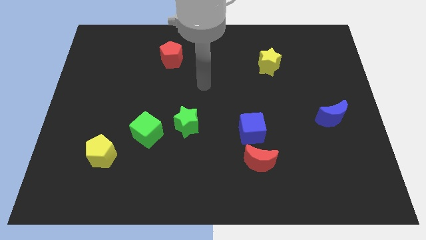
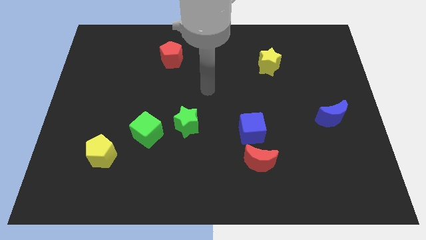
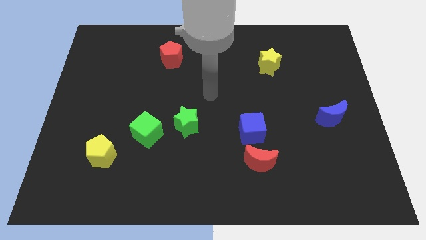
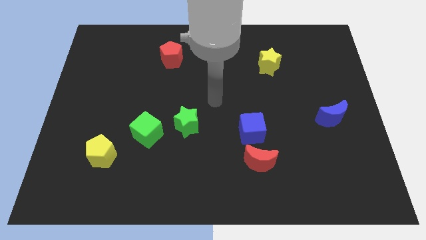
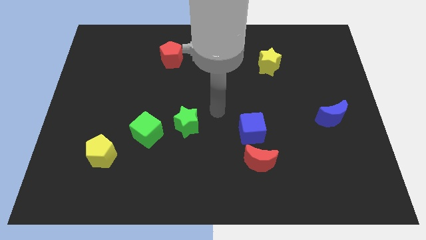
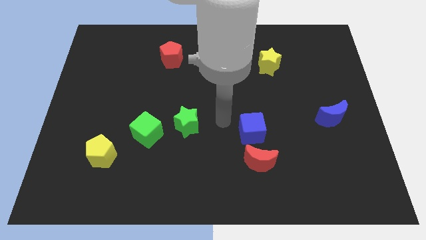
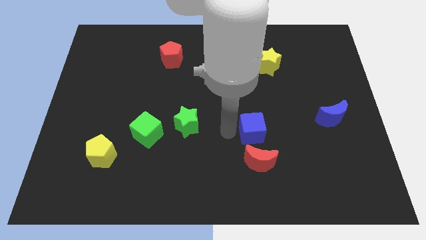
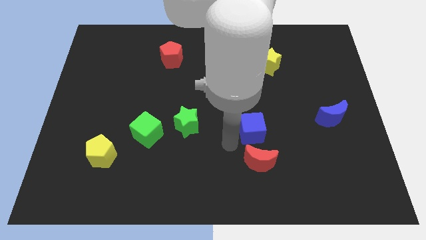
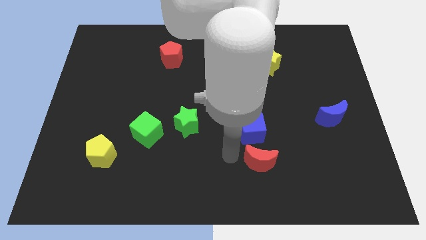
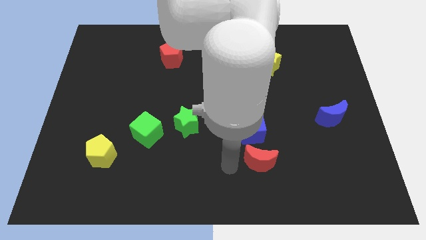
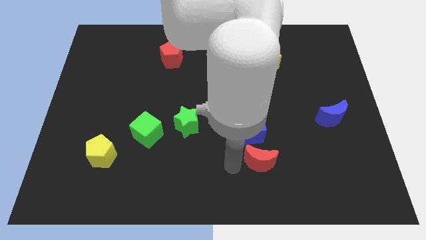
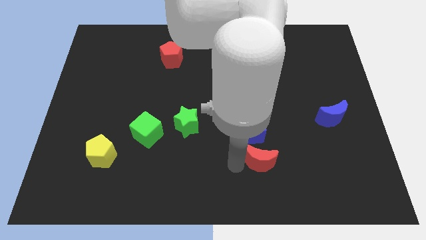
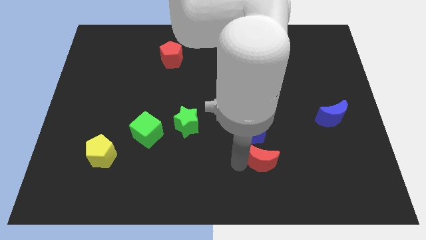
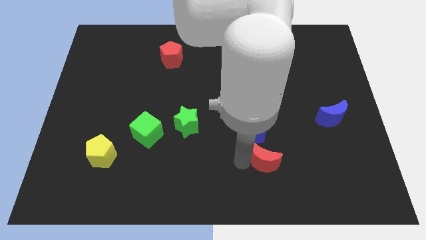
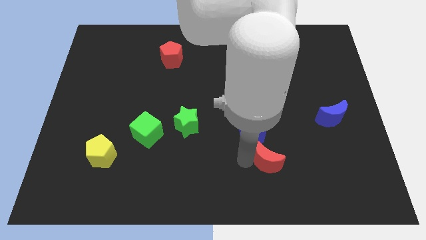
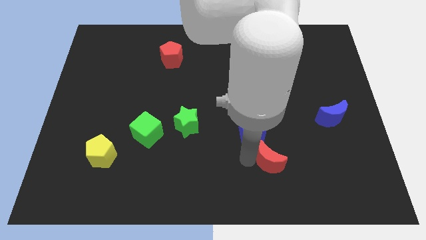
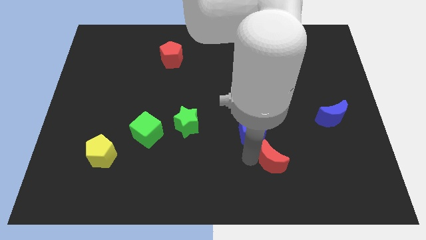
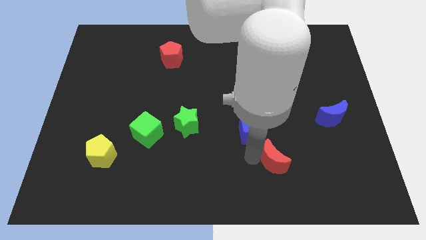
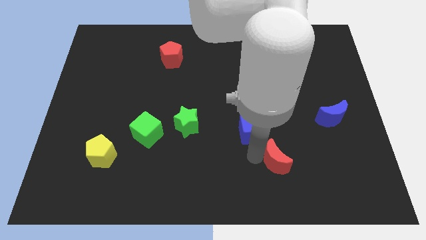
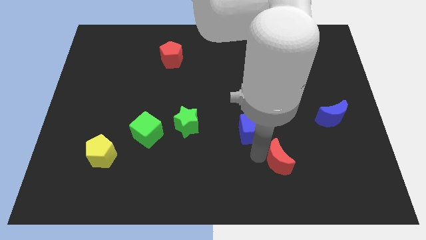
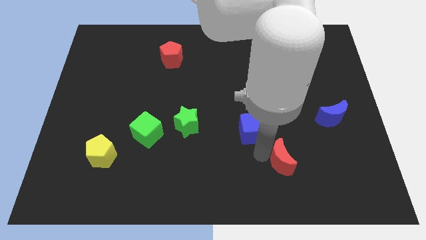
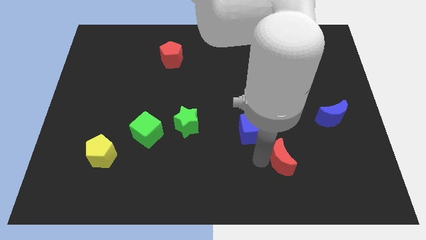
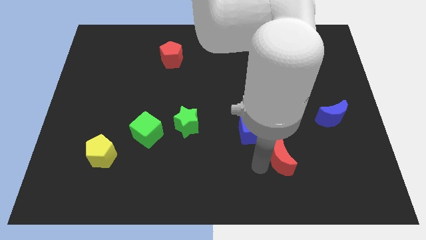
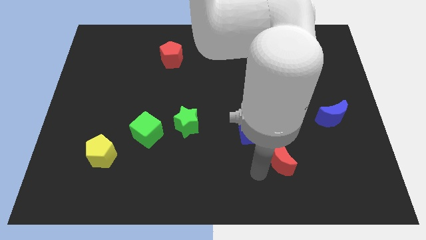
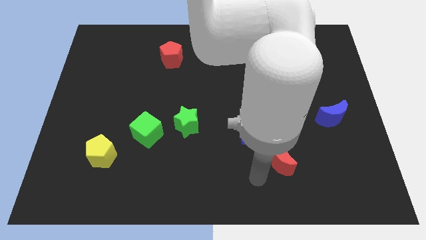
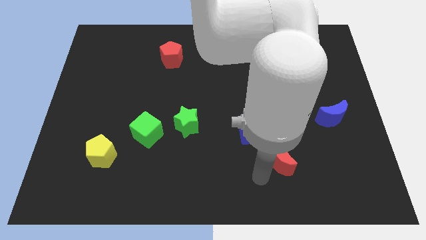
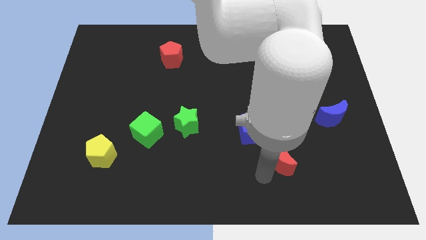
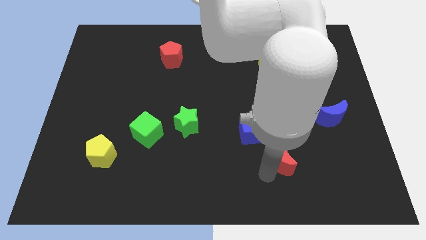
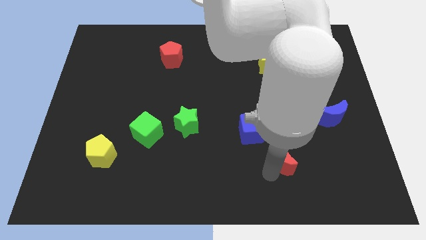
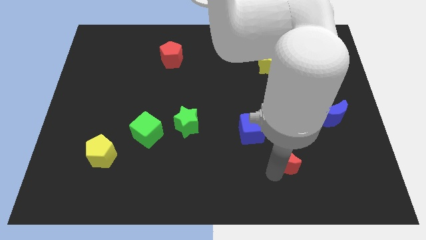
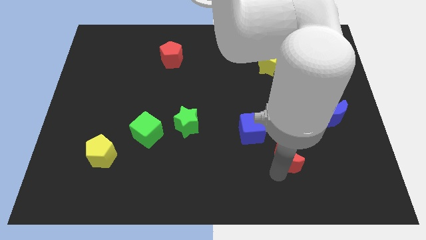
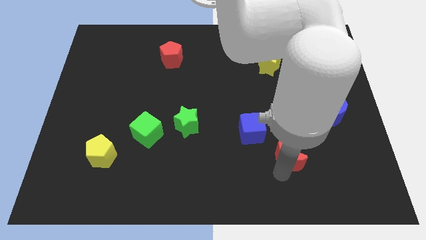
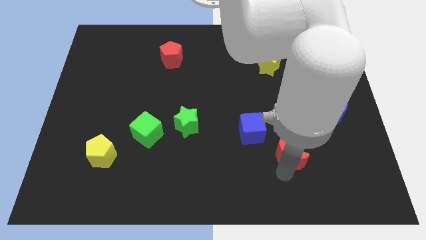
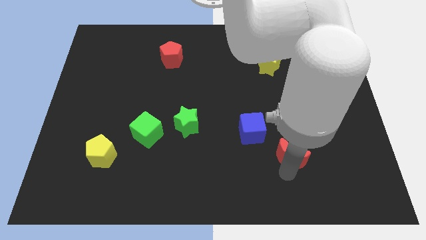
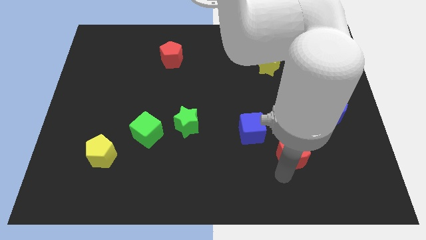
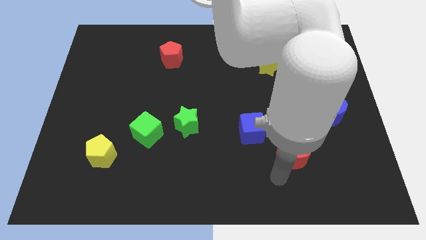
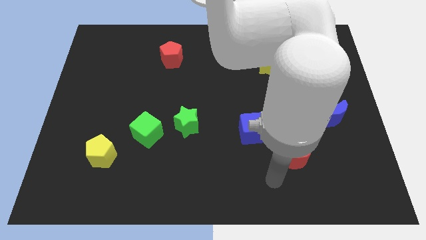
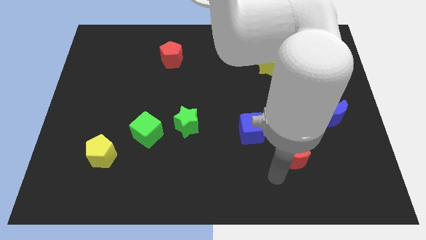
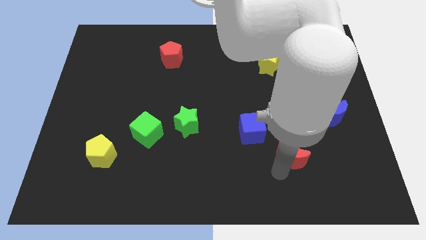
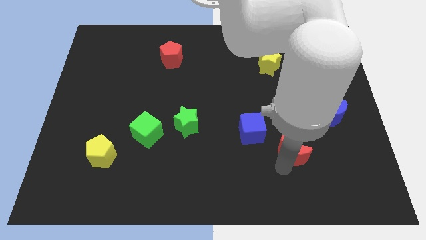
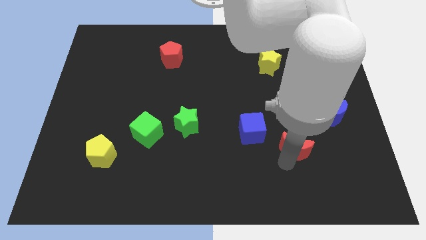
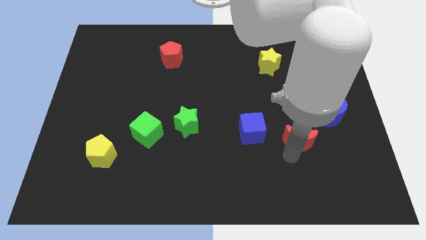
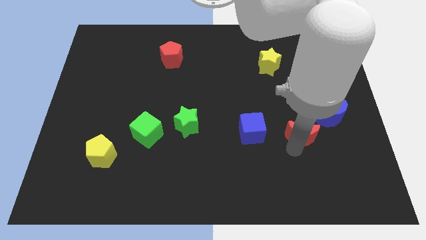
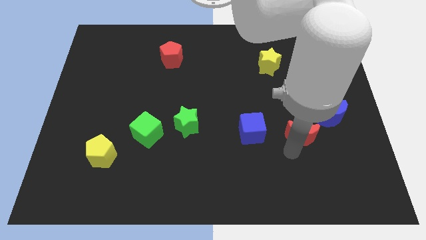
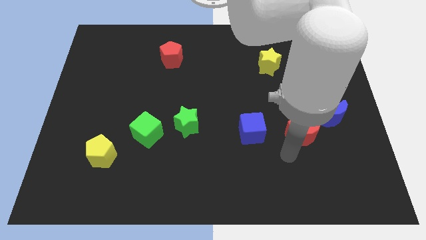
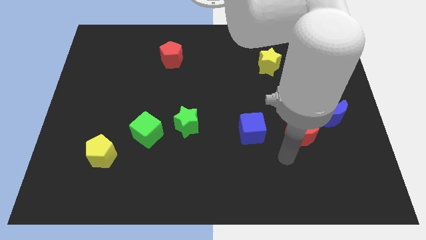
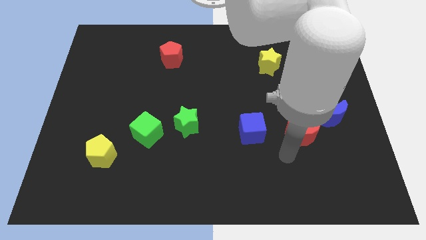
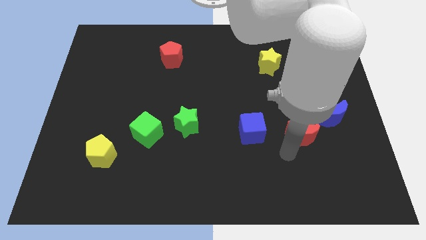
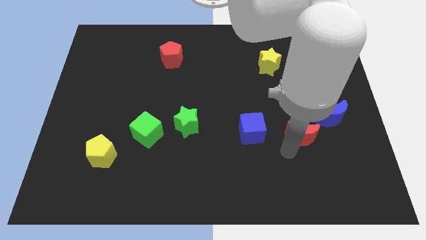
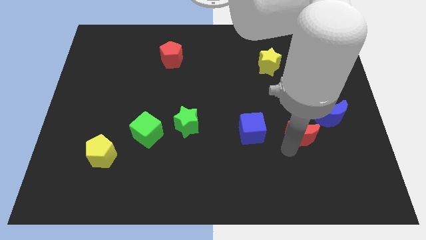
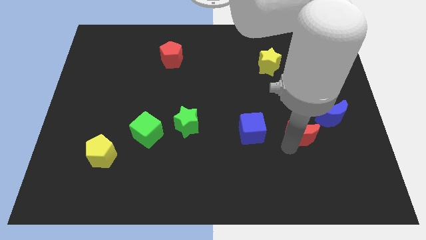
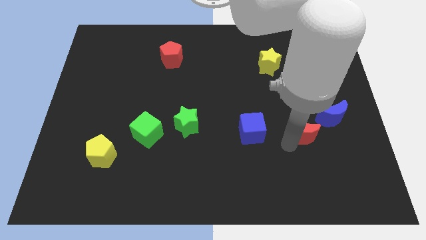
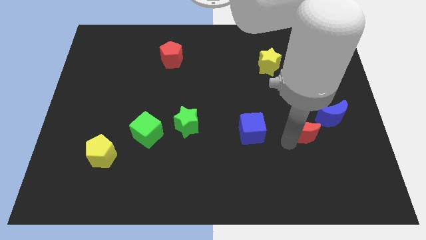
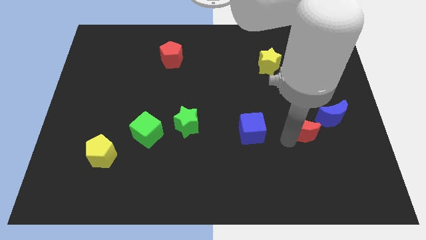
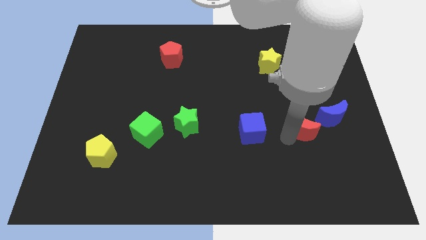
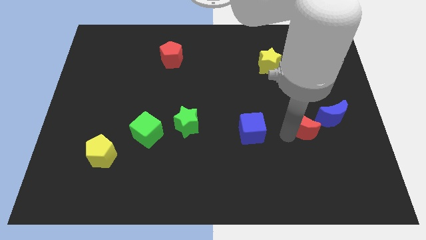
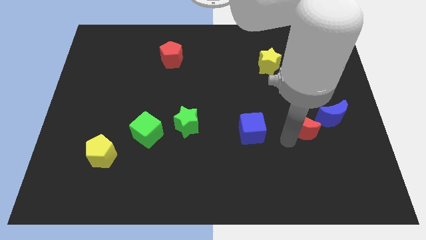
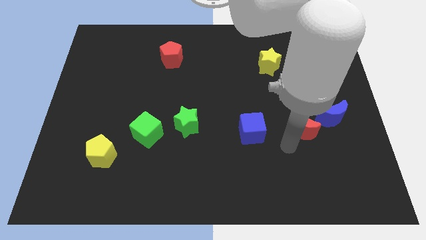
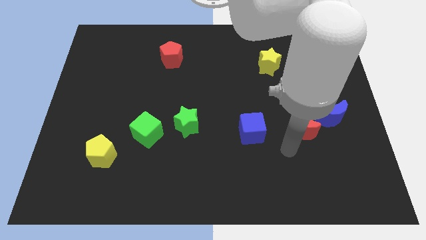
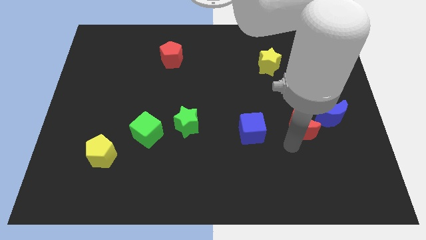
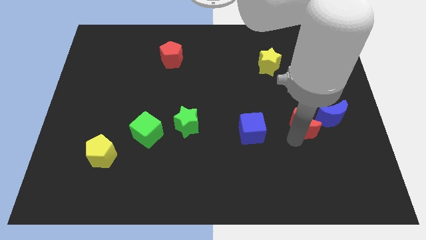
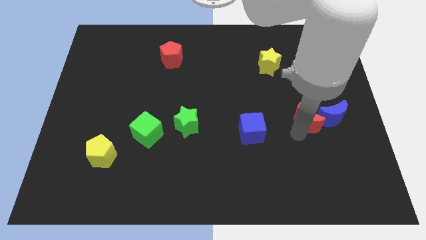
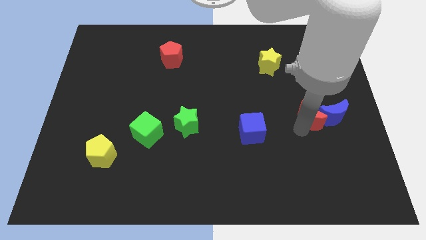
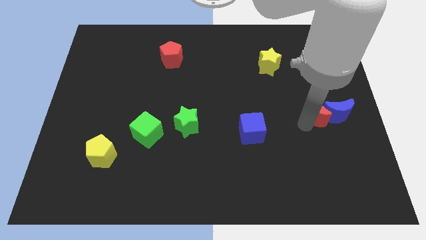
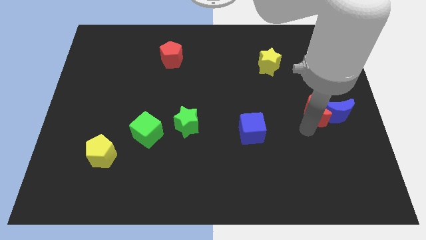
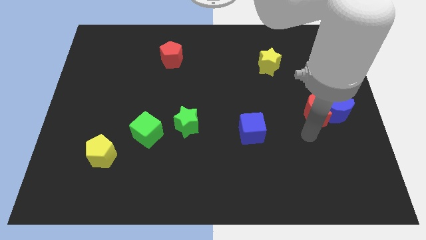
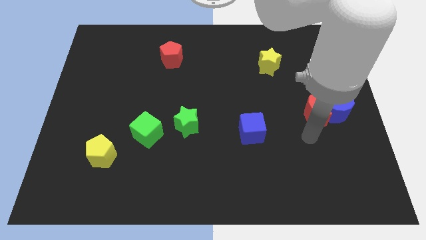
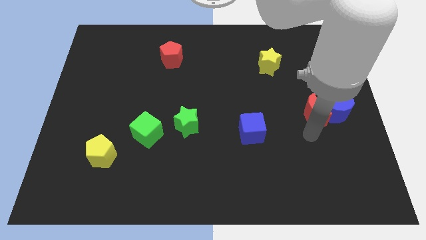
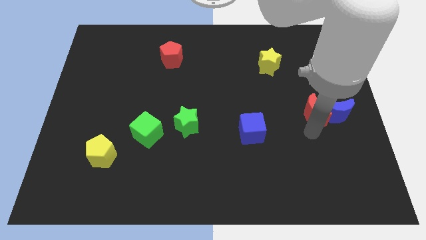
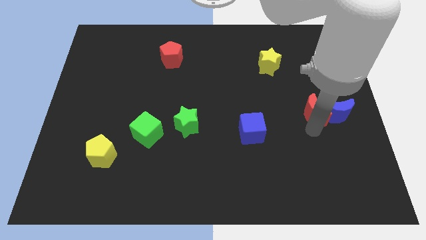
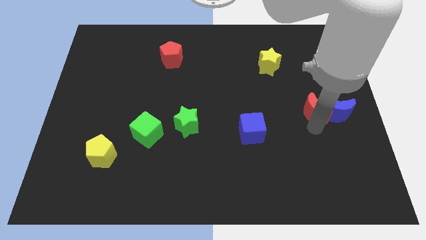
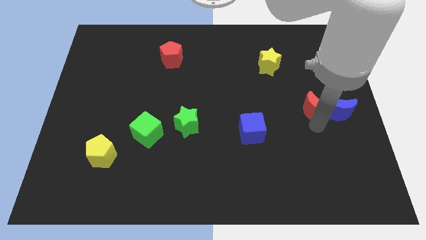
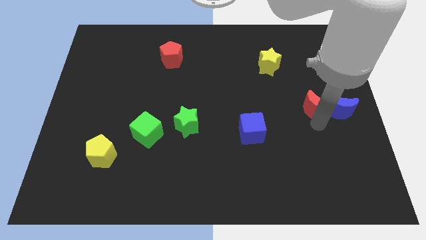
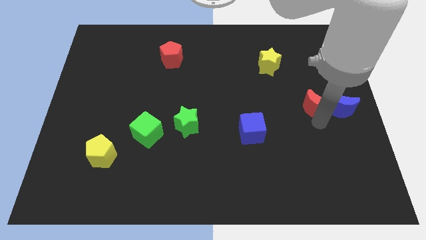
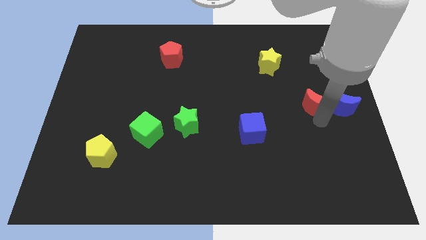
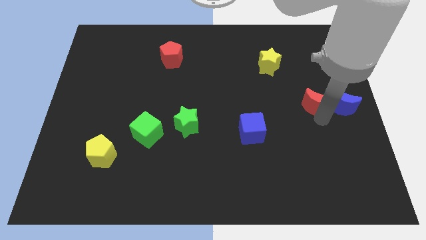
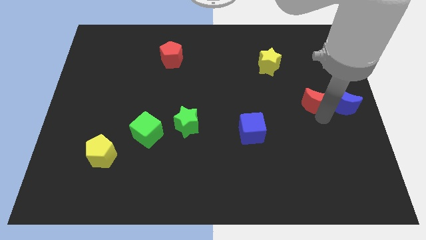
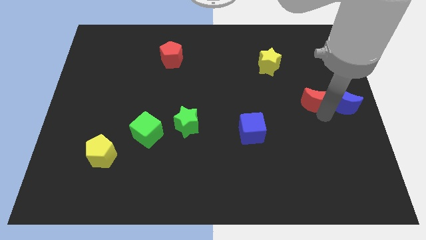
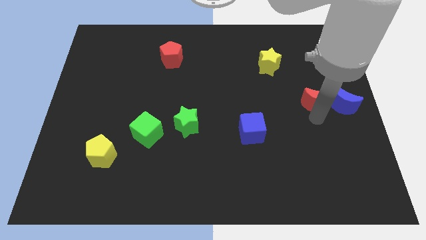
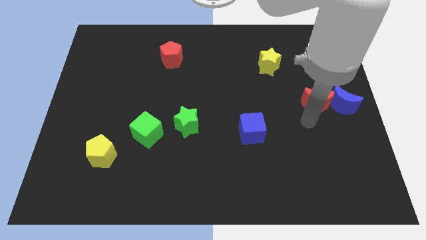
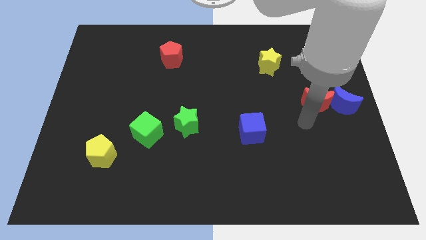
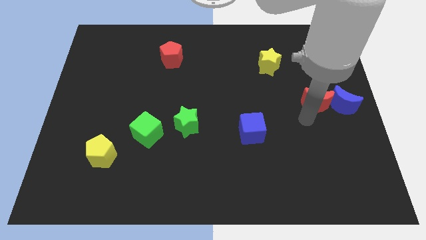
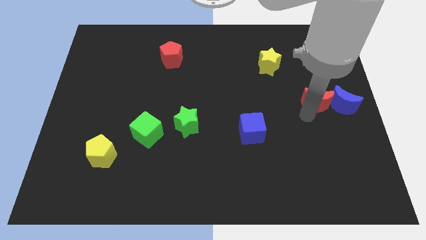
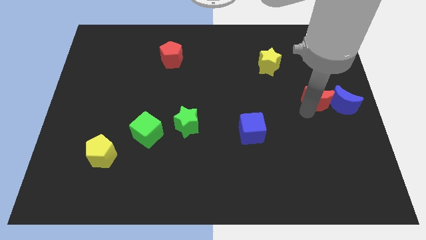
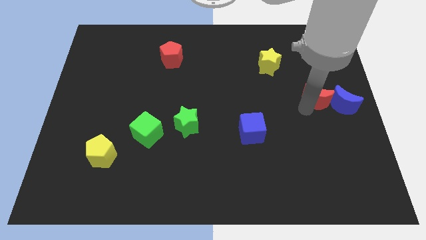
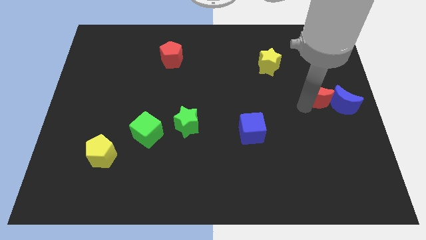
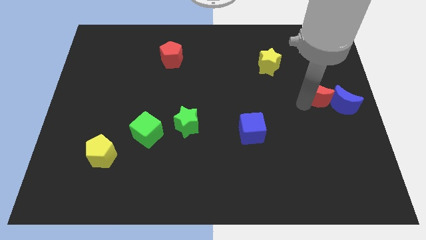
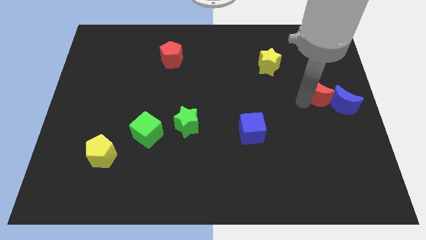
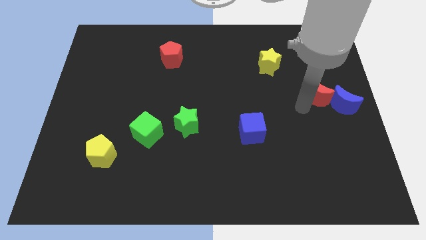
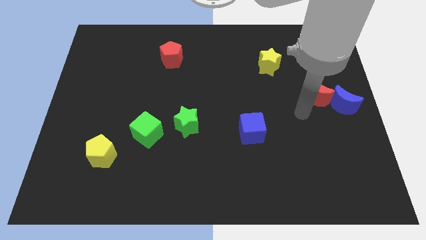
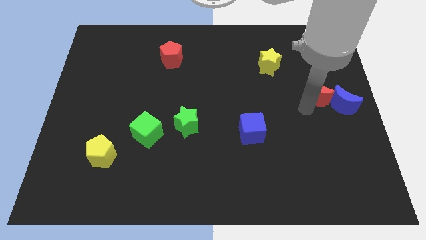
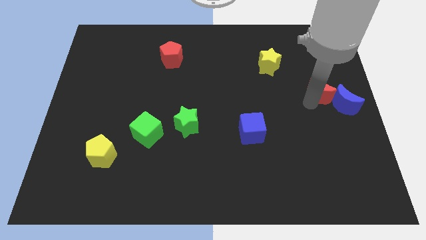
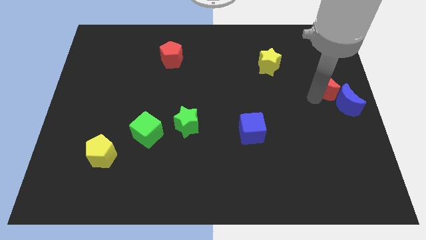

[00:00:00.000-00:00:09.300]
slide the red moon to the top side of the blue moon
